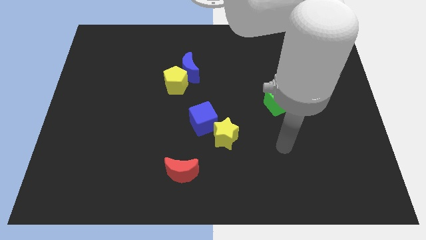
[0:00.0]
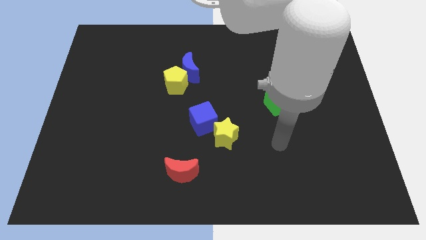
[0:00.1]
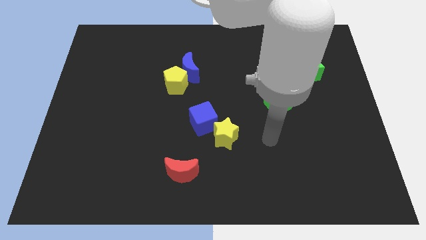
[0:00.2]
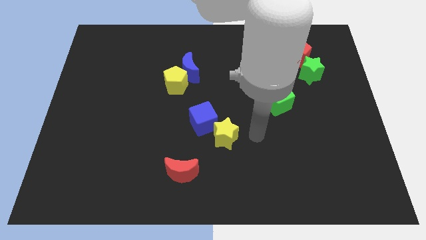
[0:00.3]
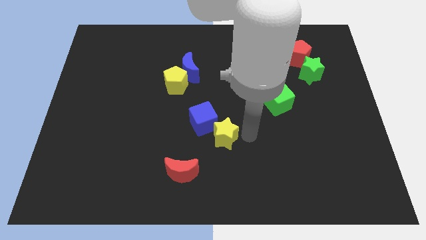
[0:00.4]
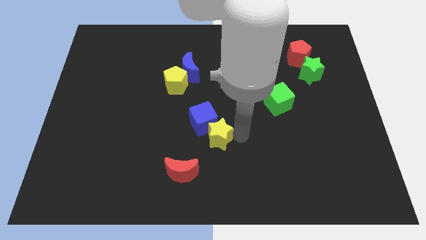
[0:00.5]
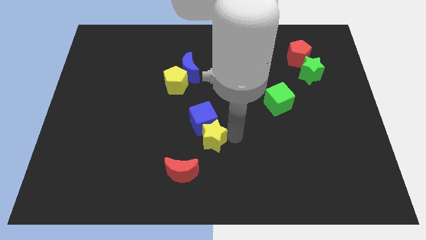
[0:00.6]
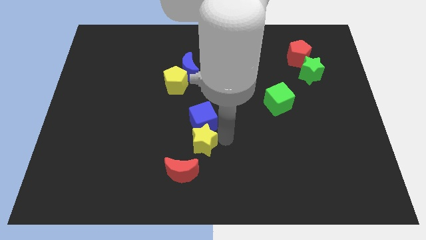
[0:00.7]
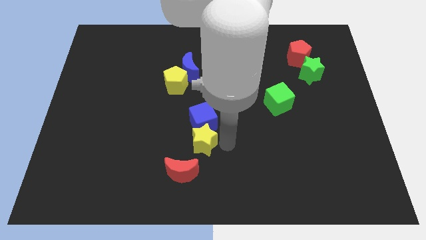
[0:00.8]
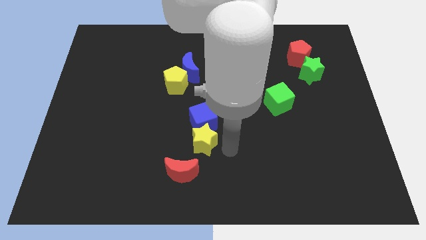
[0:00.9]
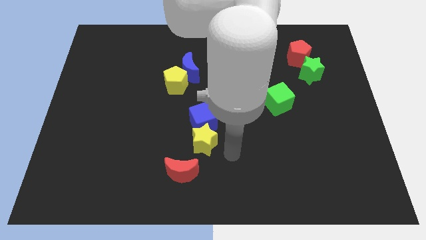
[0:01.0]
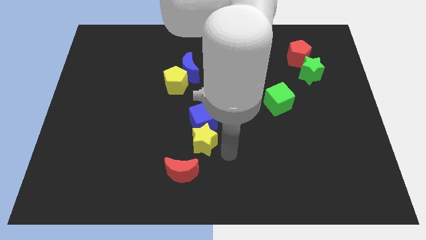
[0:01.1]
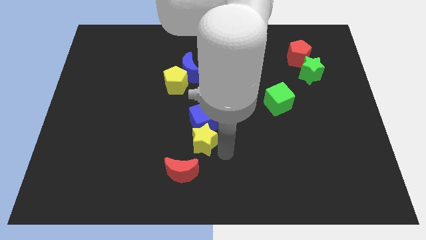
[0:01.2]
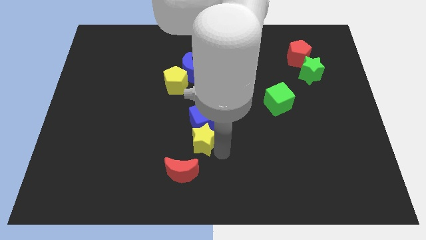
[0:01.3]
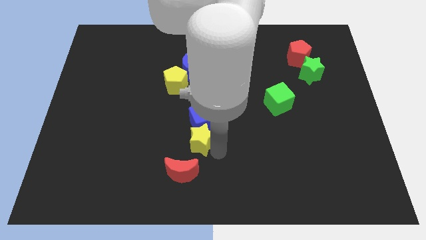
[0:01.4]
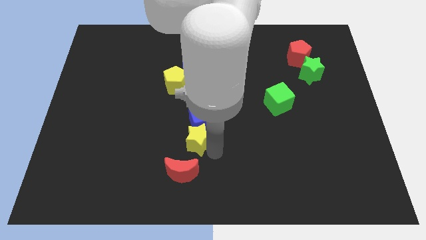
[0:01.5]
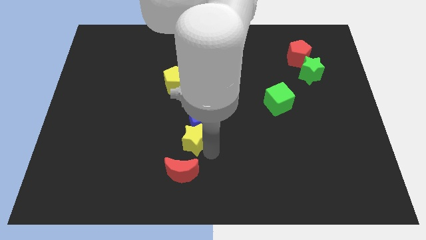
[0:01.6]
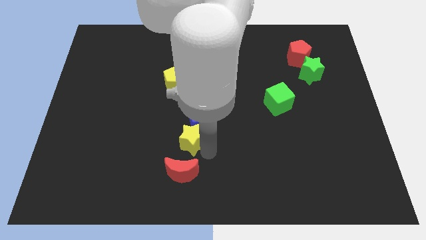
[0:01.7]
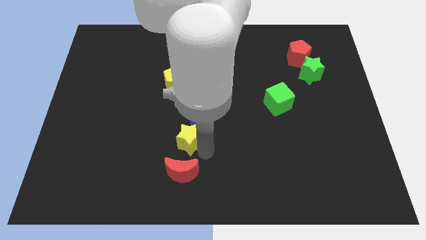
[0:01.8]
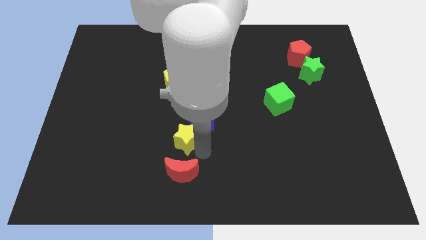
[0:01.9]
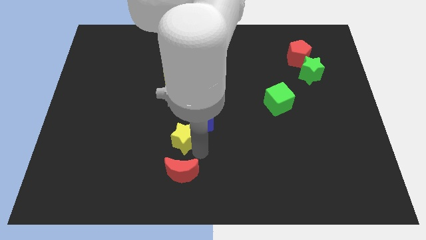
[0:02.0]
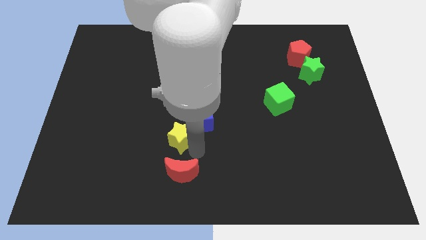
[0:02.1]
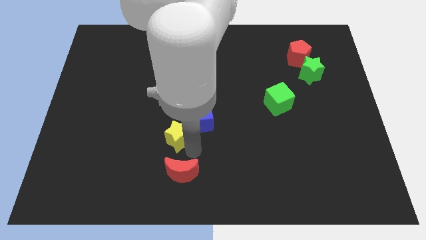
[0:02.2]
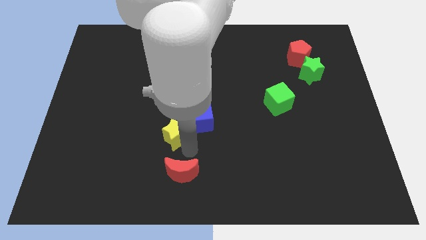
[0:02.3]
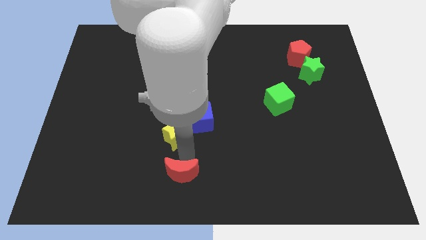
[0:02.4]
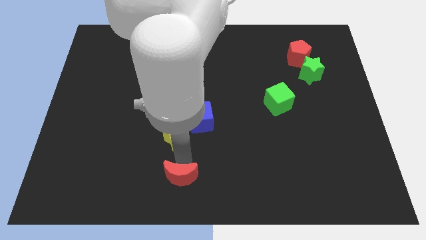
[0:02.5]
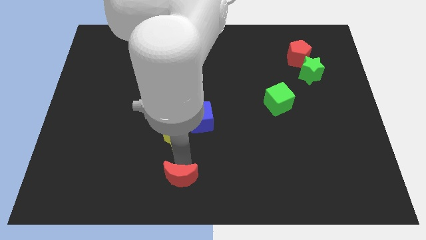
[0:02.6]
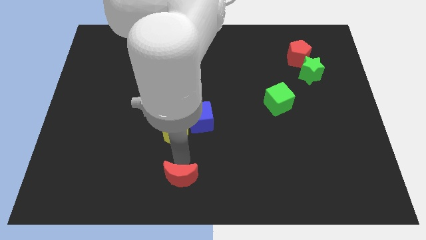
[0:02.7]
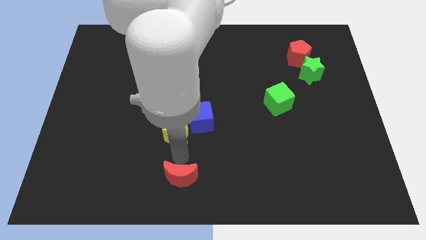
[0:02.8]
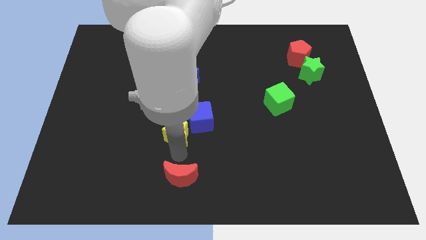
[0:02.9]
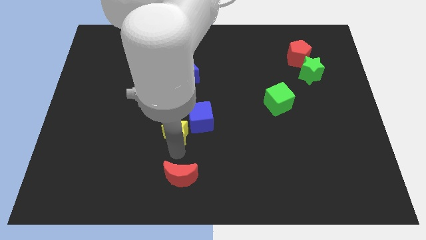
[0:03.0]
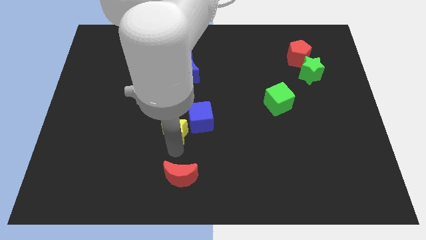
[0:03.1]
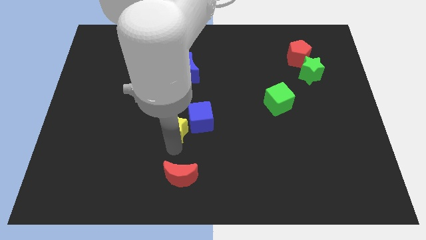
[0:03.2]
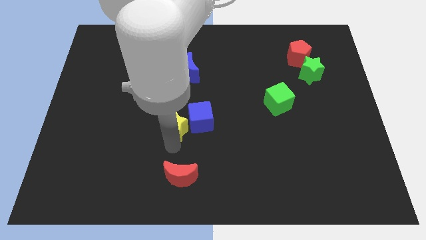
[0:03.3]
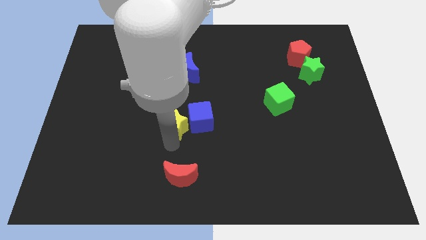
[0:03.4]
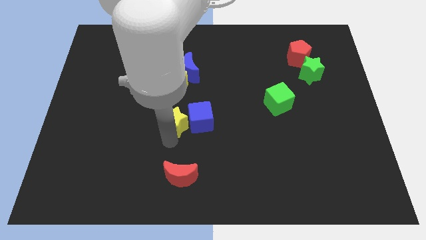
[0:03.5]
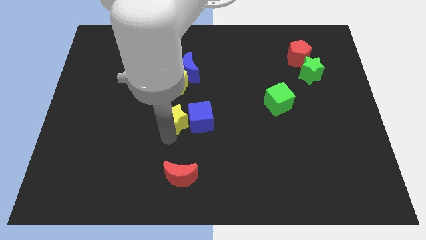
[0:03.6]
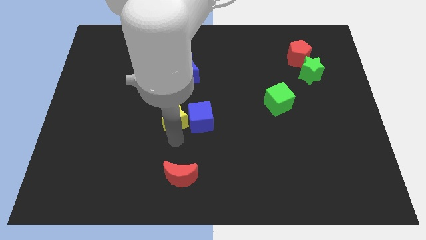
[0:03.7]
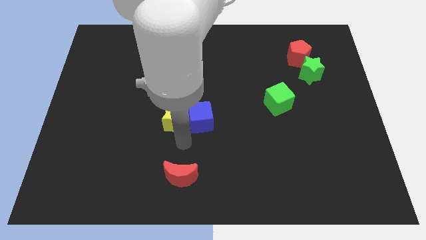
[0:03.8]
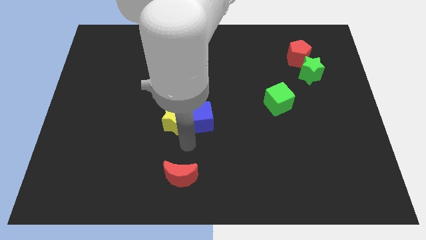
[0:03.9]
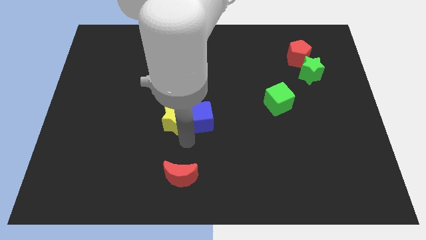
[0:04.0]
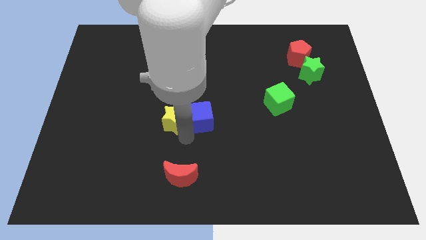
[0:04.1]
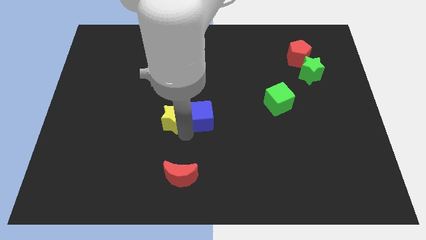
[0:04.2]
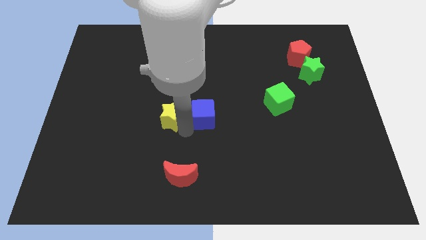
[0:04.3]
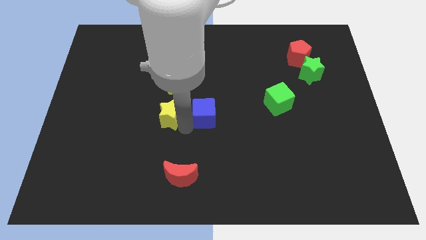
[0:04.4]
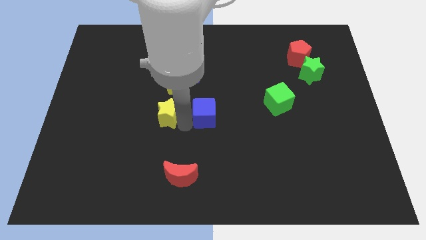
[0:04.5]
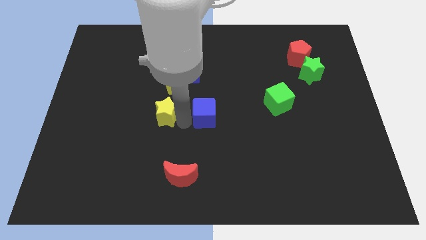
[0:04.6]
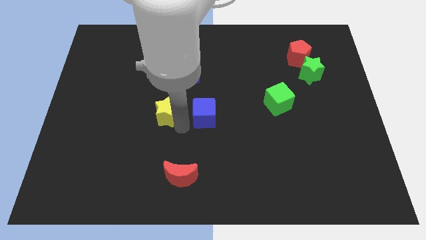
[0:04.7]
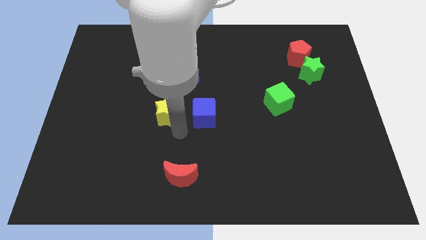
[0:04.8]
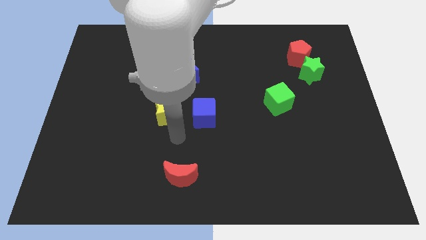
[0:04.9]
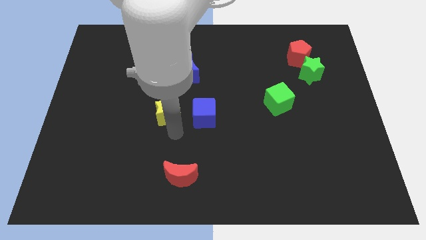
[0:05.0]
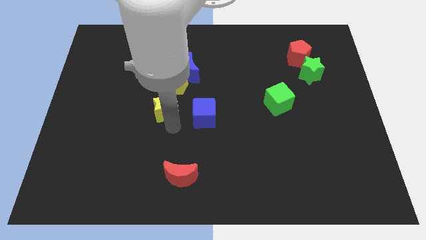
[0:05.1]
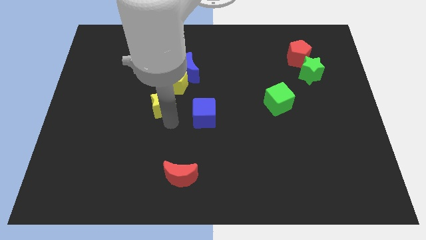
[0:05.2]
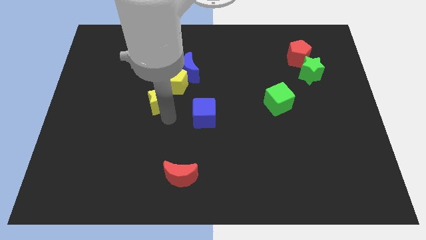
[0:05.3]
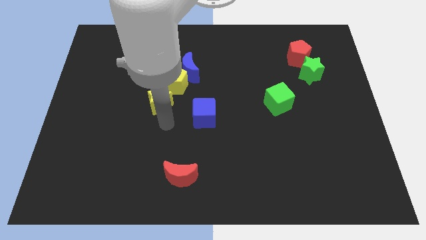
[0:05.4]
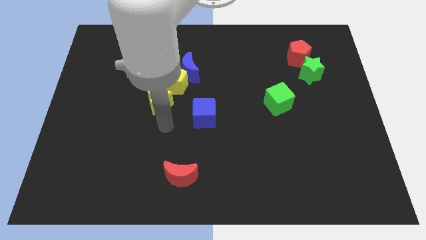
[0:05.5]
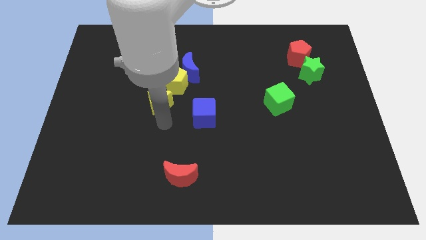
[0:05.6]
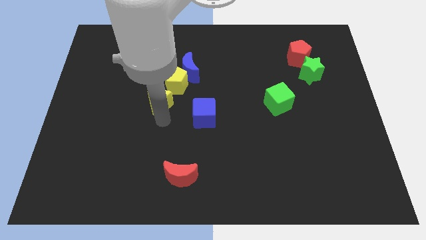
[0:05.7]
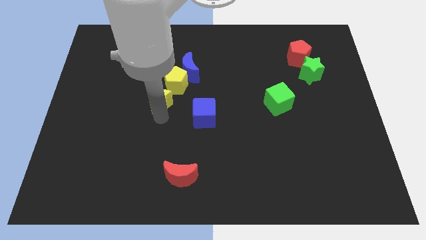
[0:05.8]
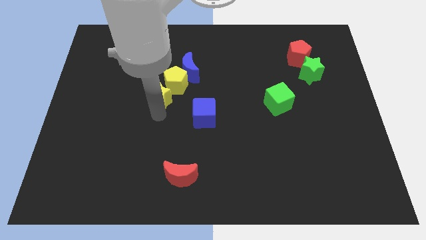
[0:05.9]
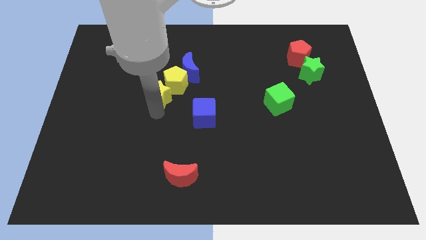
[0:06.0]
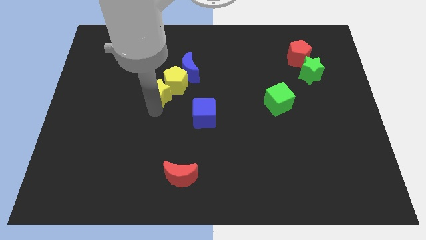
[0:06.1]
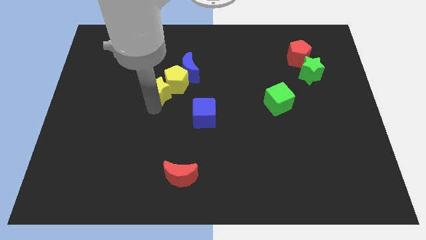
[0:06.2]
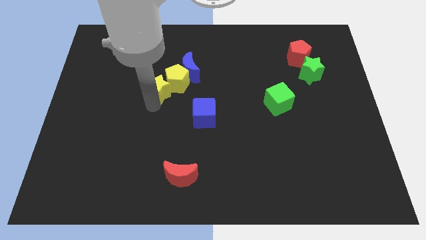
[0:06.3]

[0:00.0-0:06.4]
move the yellow star upwards and to the left diagonally

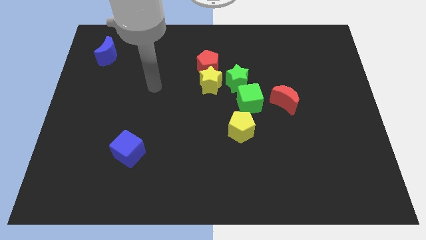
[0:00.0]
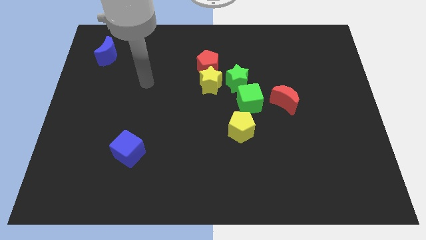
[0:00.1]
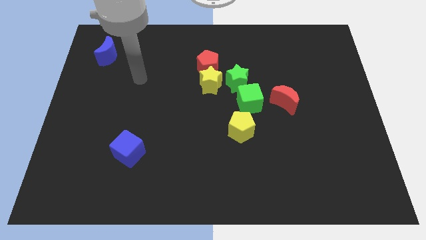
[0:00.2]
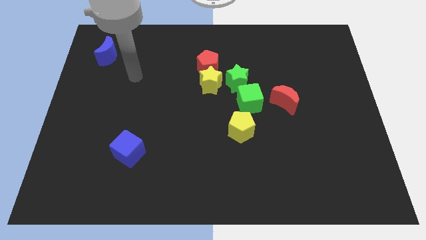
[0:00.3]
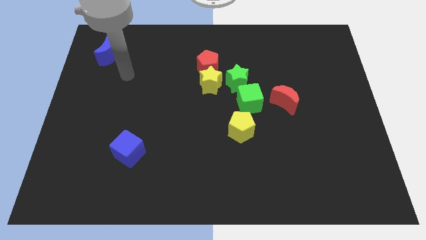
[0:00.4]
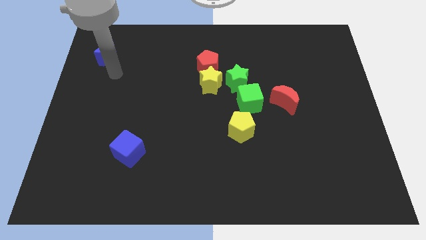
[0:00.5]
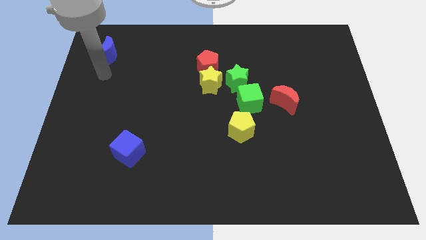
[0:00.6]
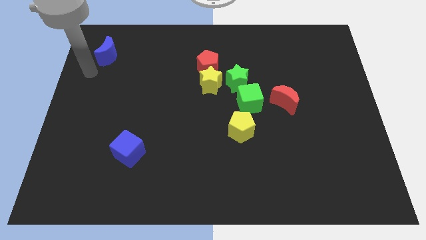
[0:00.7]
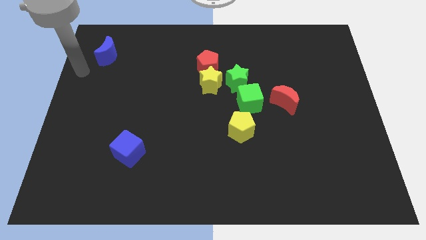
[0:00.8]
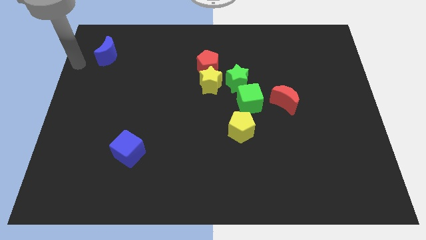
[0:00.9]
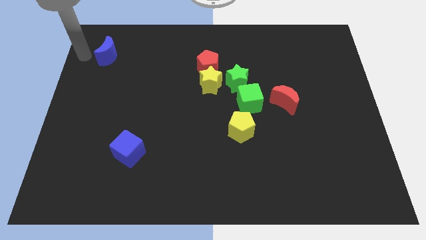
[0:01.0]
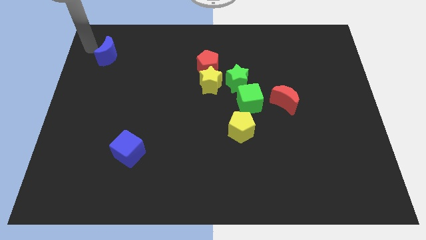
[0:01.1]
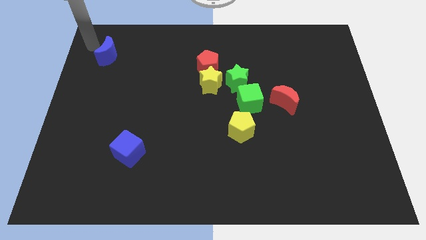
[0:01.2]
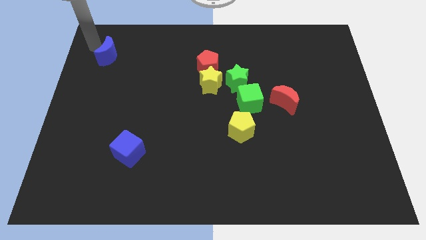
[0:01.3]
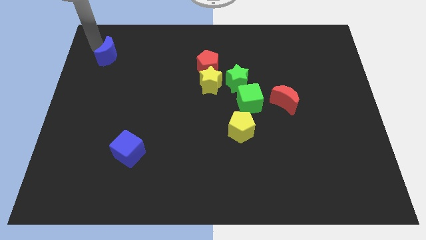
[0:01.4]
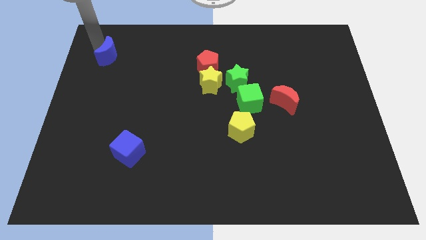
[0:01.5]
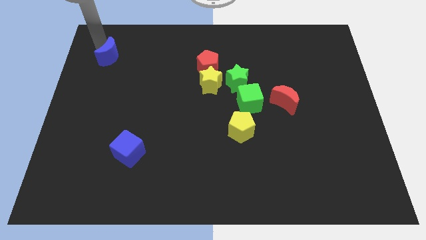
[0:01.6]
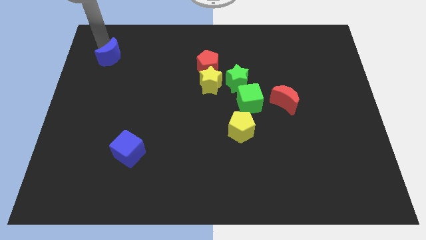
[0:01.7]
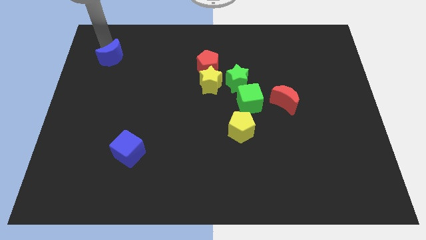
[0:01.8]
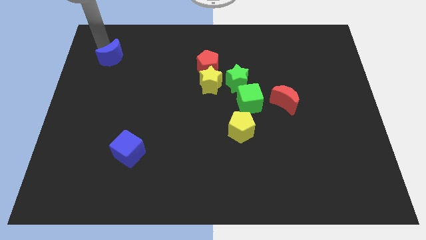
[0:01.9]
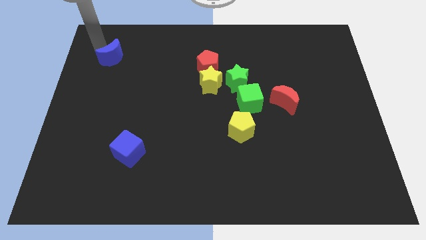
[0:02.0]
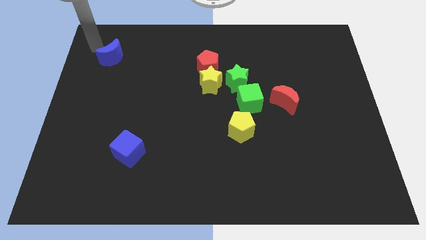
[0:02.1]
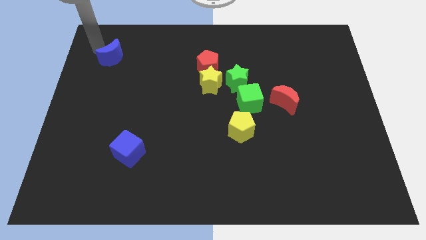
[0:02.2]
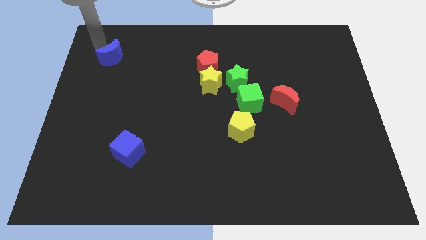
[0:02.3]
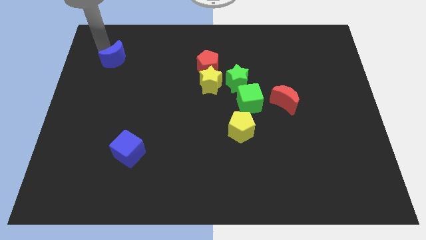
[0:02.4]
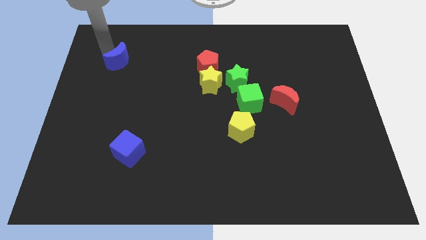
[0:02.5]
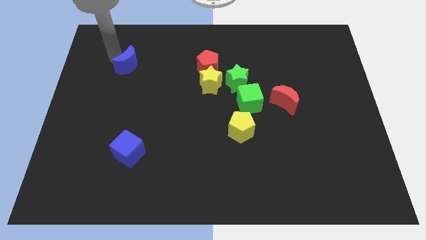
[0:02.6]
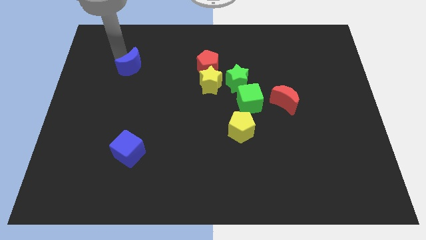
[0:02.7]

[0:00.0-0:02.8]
slightly push the blue moon downwards and to the right
